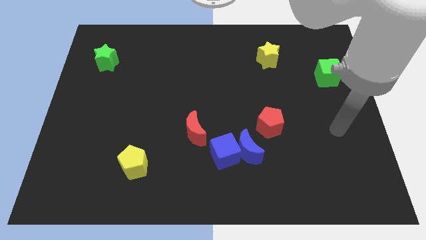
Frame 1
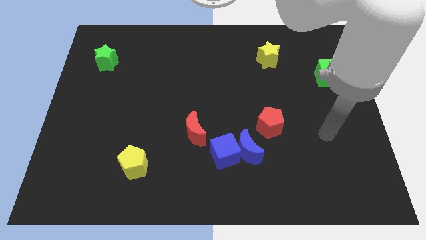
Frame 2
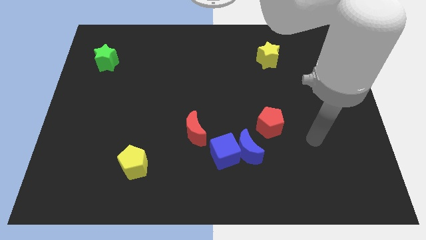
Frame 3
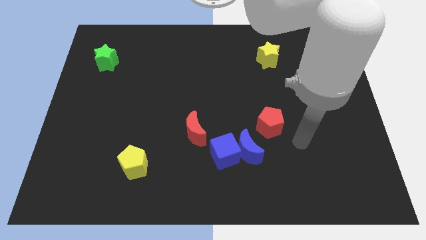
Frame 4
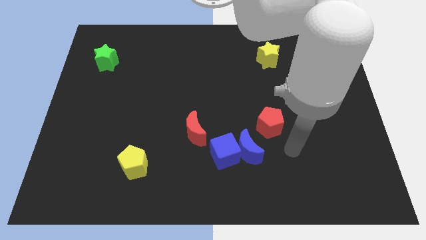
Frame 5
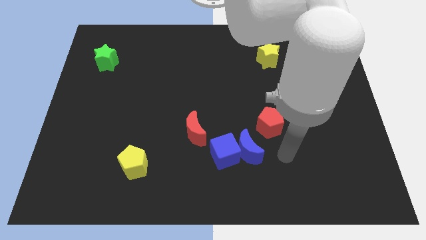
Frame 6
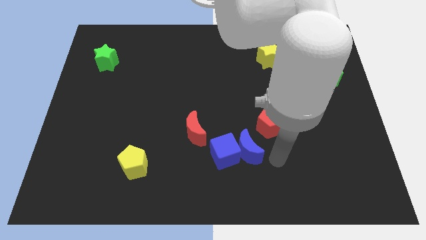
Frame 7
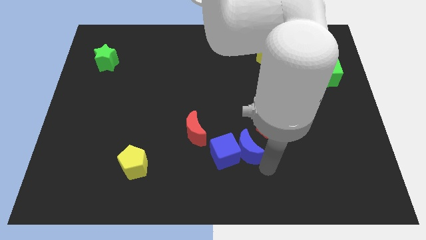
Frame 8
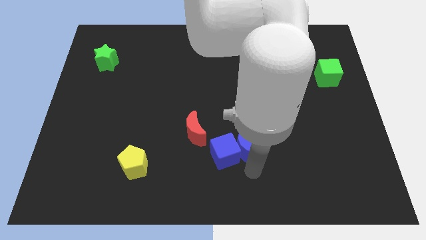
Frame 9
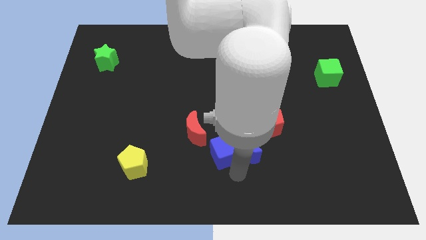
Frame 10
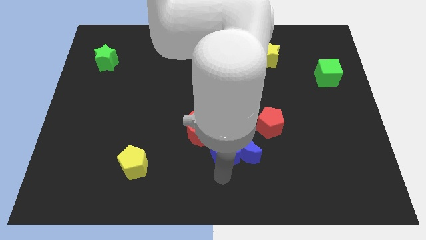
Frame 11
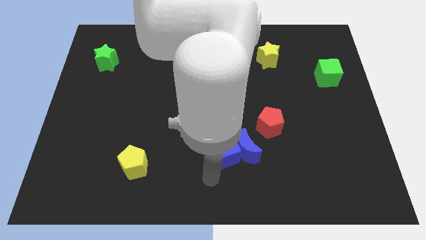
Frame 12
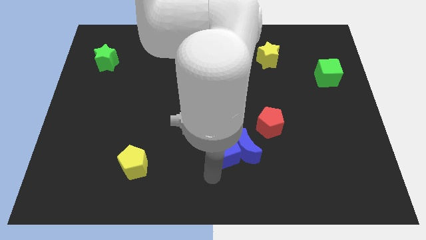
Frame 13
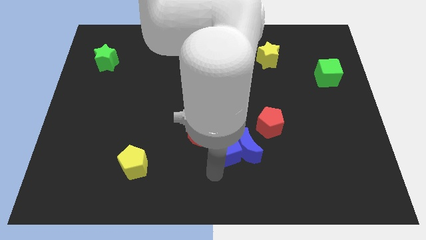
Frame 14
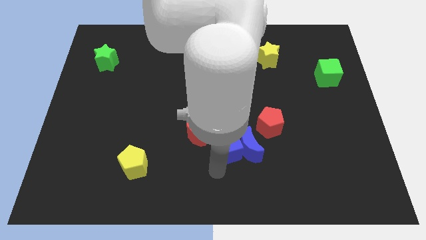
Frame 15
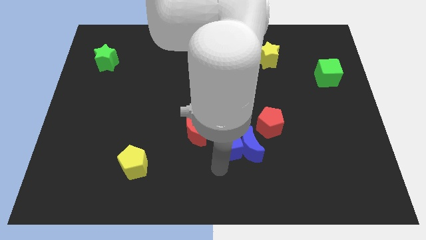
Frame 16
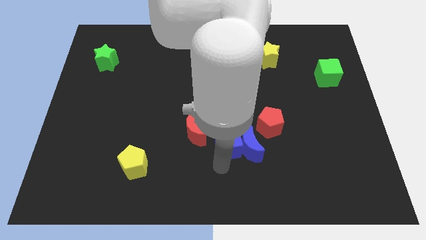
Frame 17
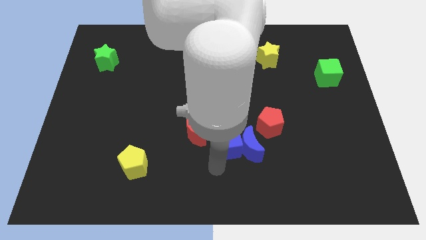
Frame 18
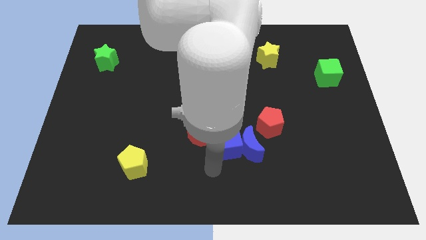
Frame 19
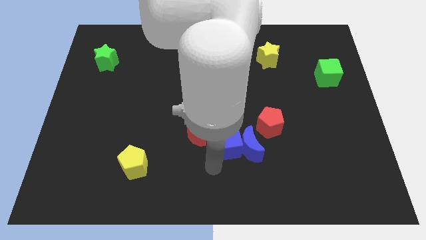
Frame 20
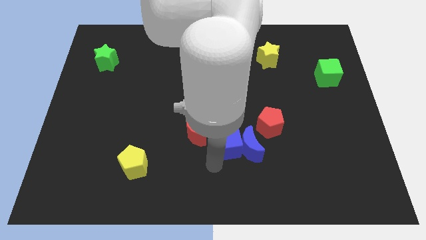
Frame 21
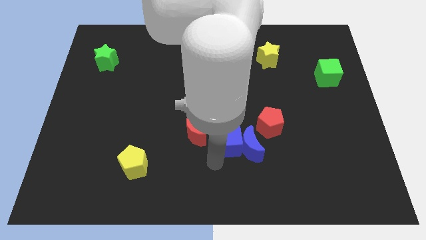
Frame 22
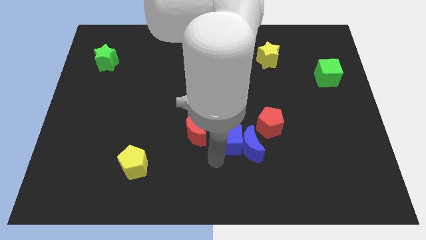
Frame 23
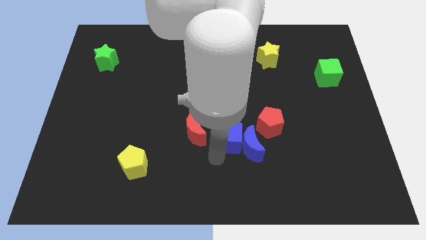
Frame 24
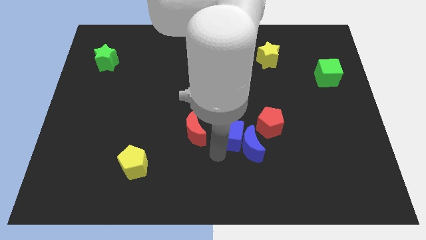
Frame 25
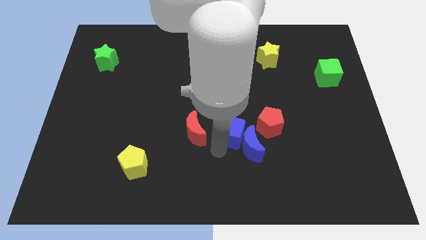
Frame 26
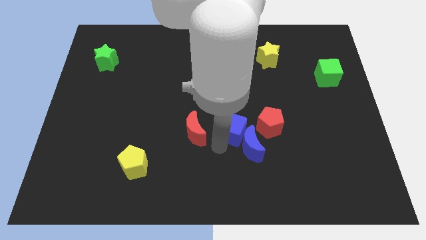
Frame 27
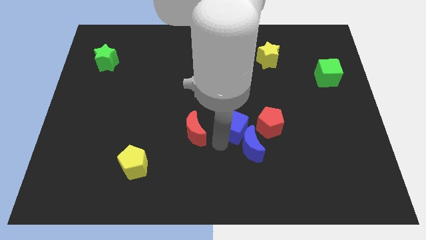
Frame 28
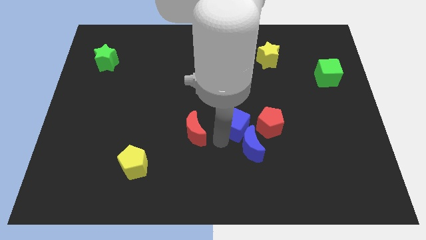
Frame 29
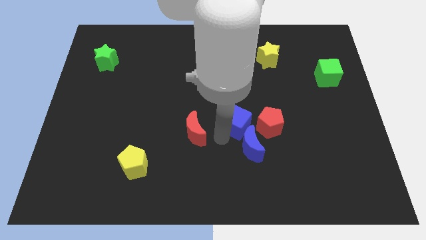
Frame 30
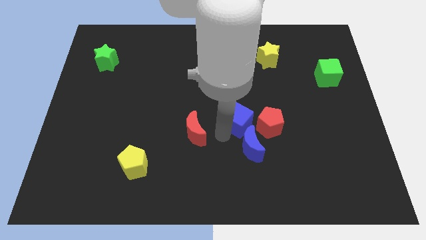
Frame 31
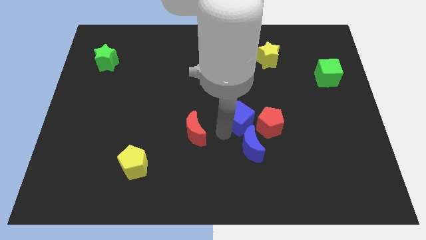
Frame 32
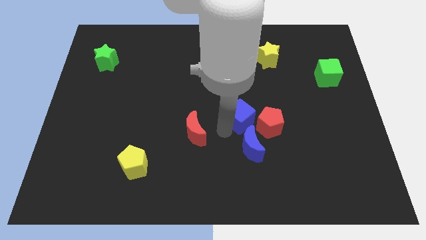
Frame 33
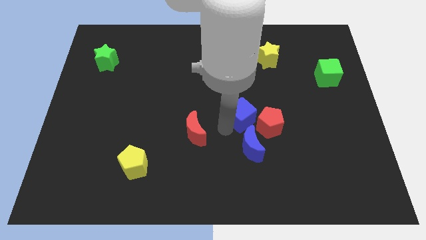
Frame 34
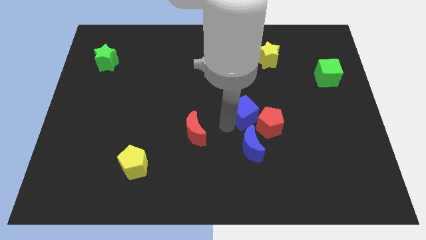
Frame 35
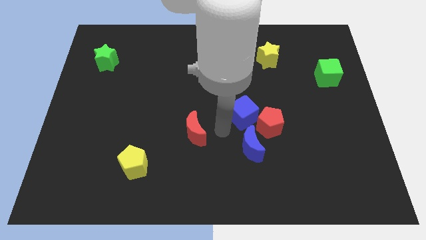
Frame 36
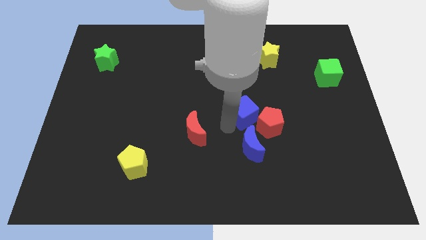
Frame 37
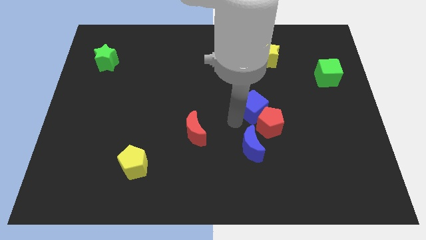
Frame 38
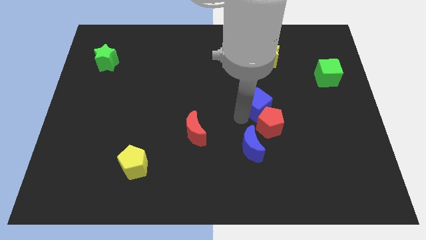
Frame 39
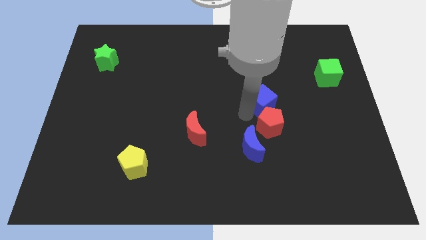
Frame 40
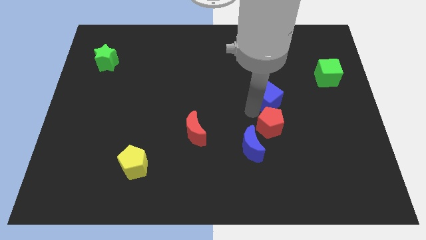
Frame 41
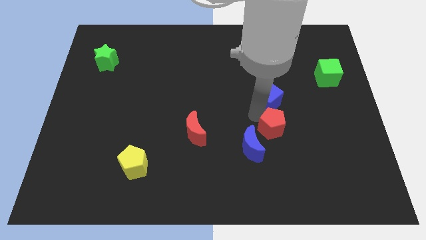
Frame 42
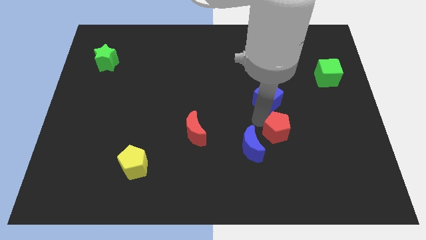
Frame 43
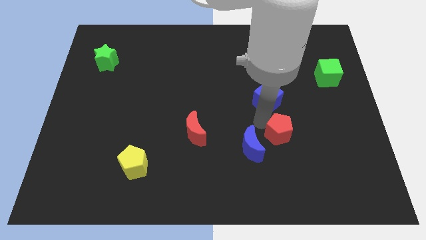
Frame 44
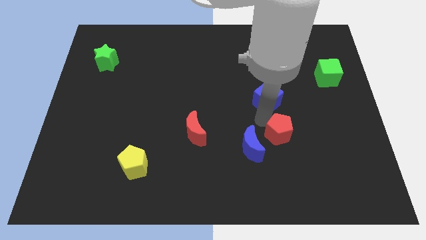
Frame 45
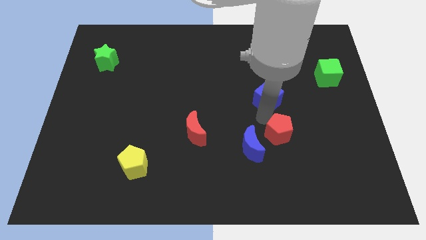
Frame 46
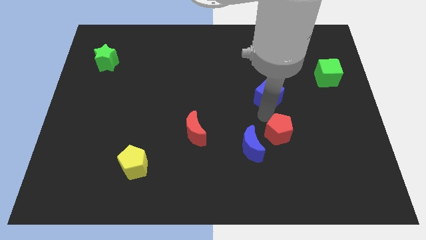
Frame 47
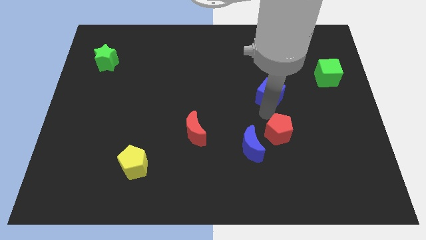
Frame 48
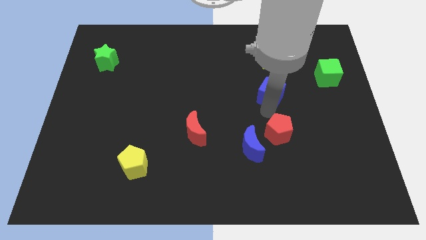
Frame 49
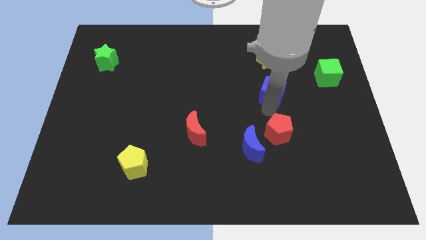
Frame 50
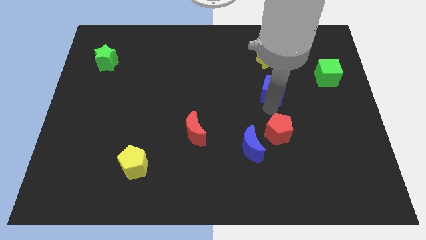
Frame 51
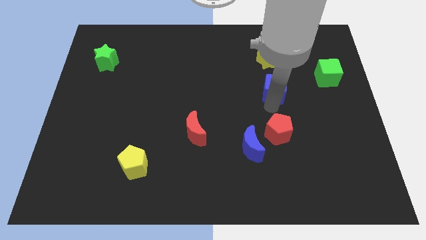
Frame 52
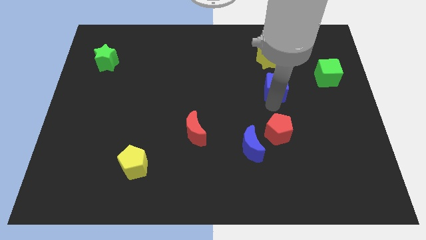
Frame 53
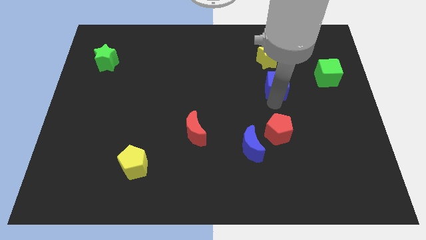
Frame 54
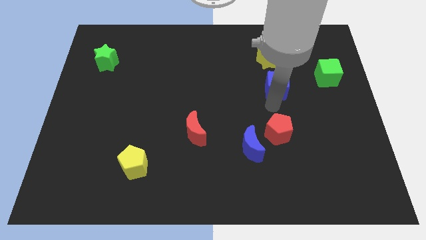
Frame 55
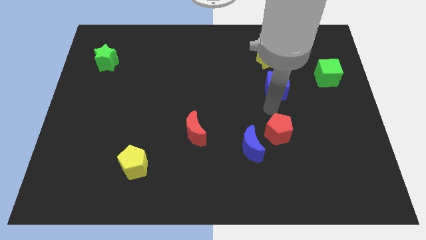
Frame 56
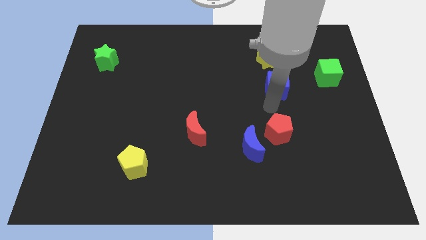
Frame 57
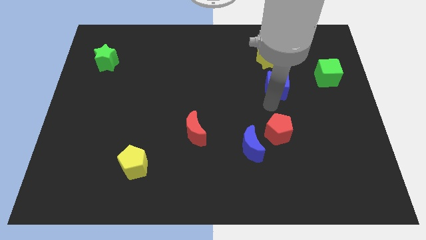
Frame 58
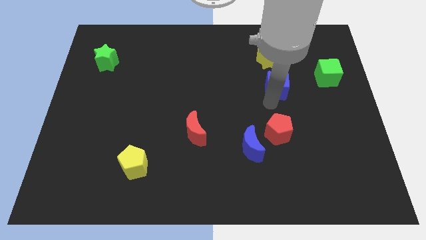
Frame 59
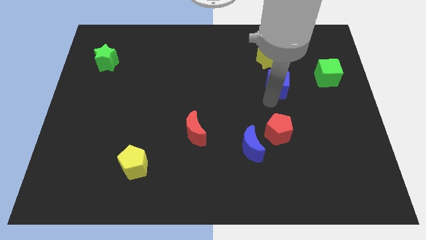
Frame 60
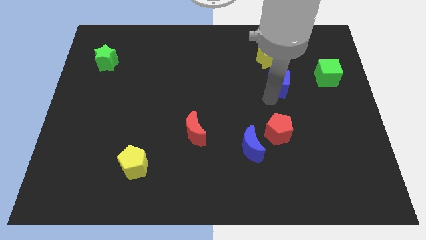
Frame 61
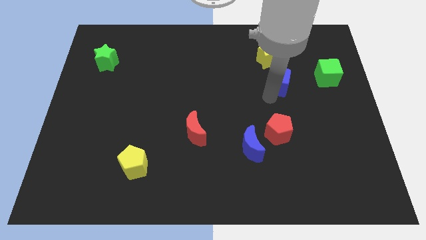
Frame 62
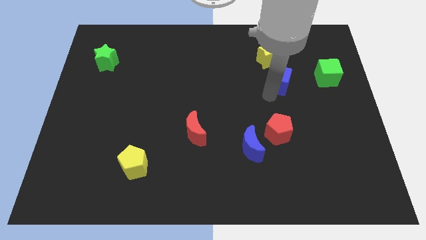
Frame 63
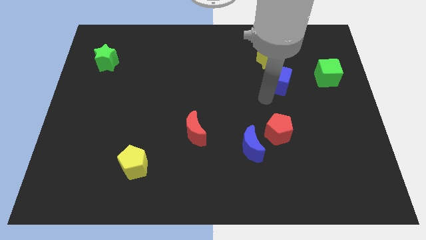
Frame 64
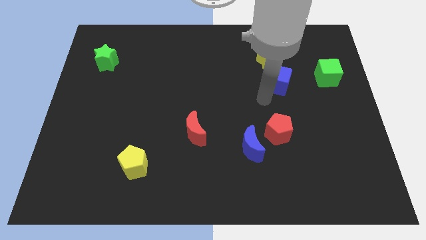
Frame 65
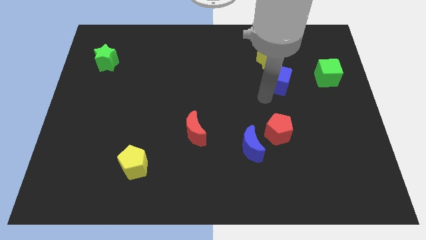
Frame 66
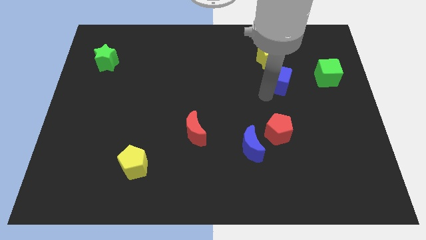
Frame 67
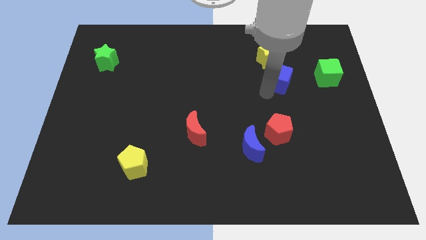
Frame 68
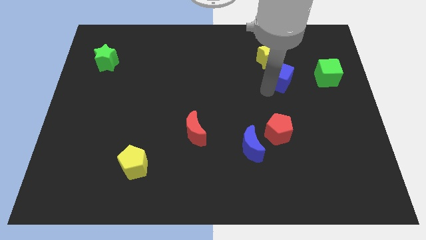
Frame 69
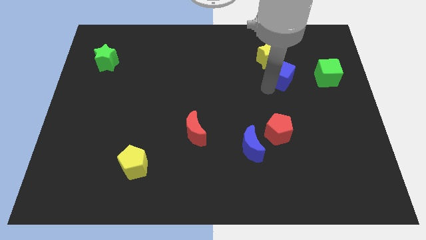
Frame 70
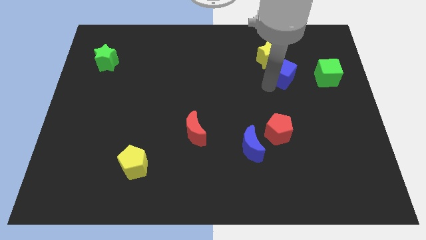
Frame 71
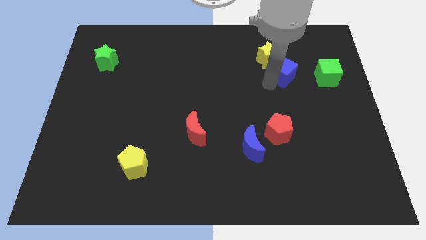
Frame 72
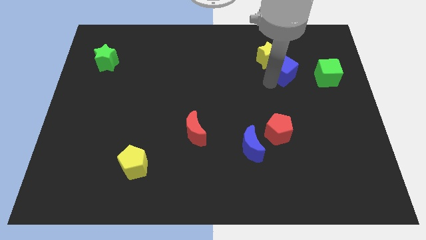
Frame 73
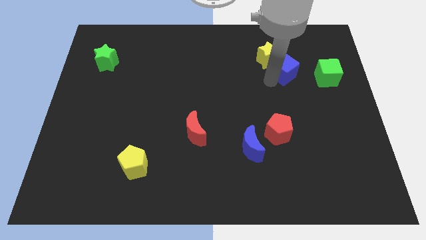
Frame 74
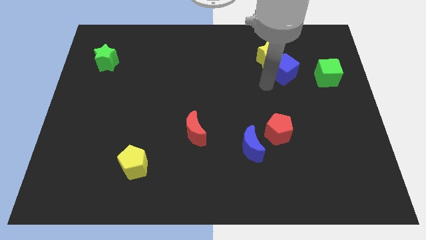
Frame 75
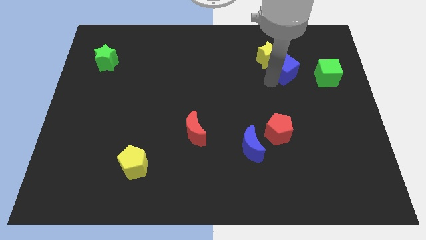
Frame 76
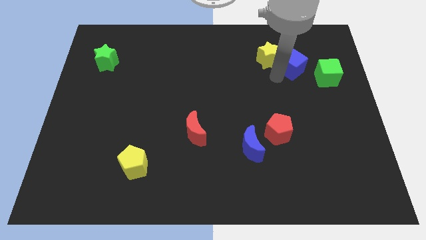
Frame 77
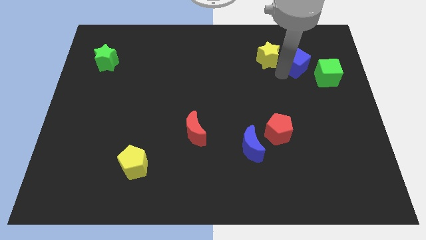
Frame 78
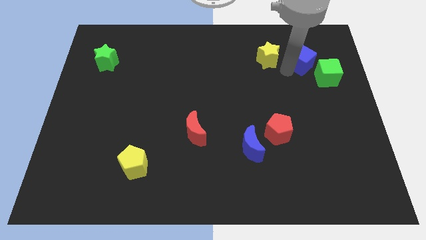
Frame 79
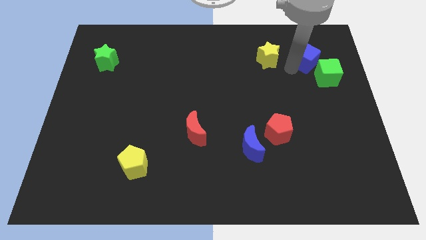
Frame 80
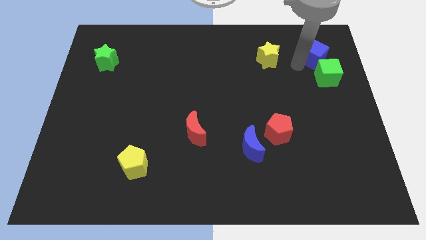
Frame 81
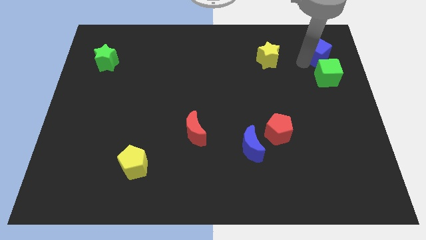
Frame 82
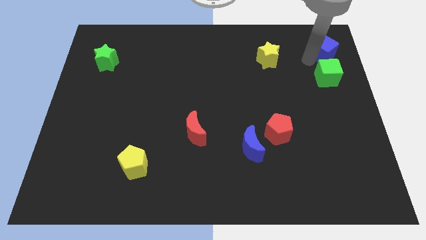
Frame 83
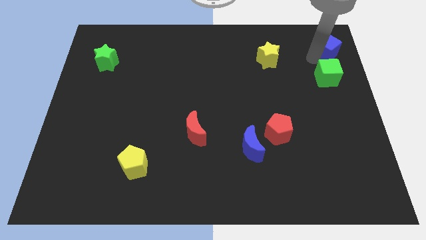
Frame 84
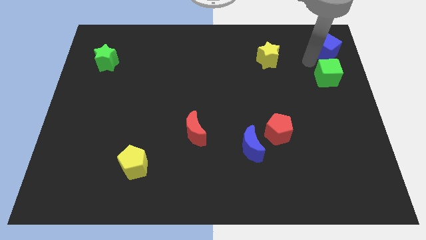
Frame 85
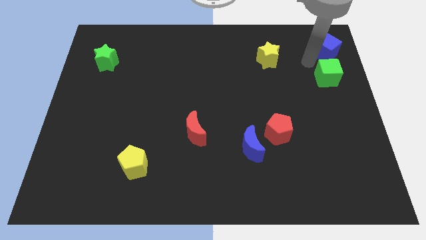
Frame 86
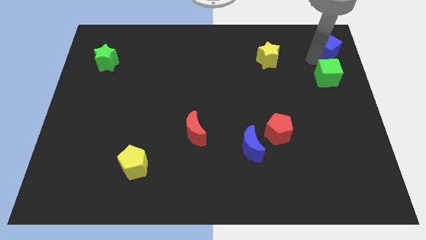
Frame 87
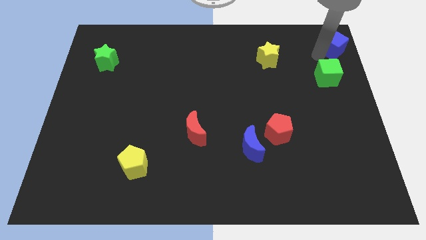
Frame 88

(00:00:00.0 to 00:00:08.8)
move the blue cube to the top right corner
